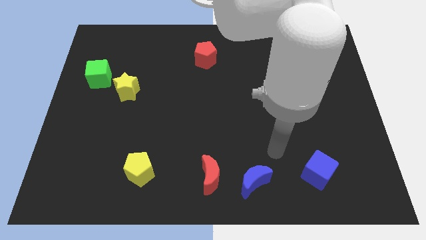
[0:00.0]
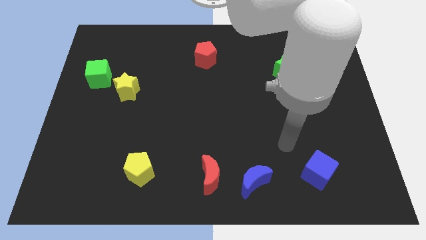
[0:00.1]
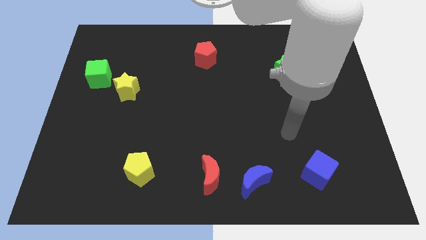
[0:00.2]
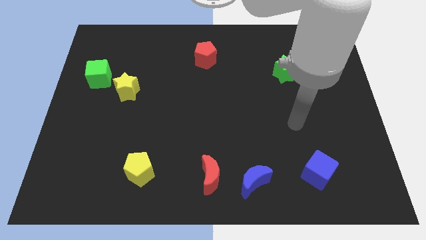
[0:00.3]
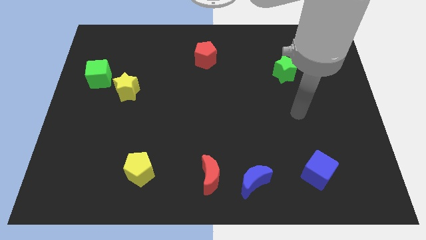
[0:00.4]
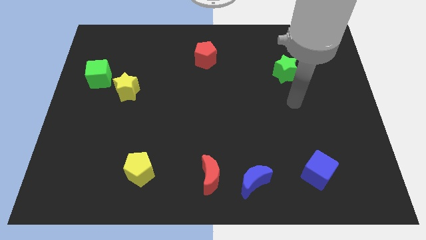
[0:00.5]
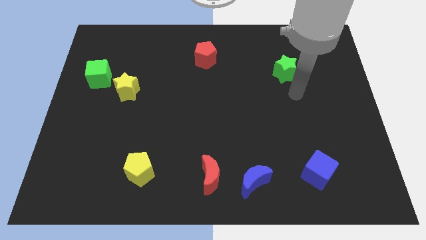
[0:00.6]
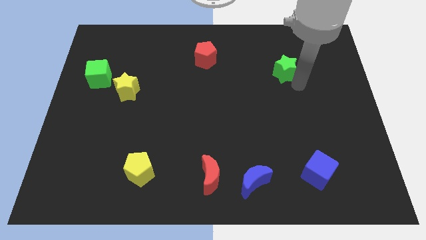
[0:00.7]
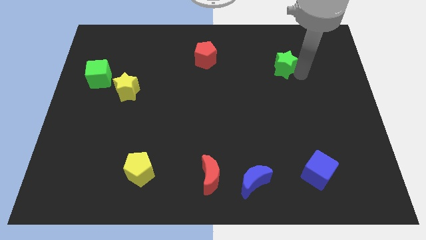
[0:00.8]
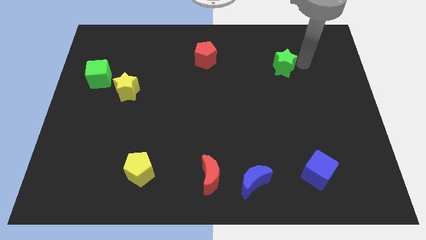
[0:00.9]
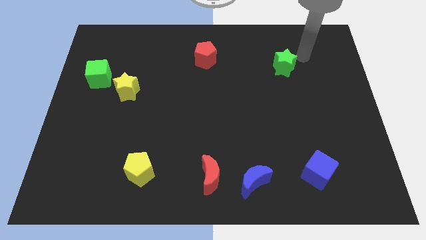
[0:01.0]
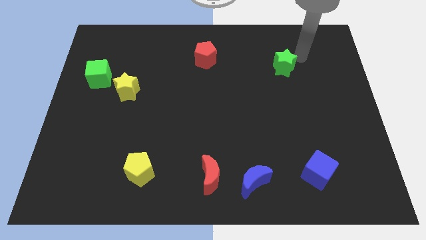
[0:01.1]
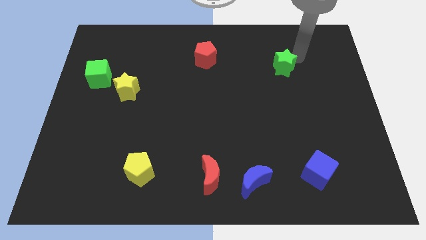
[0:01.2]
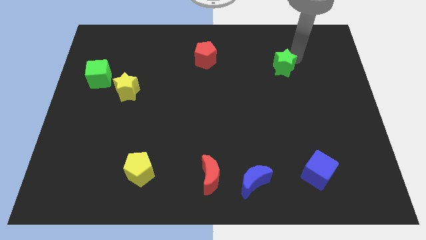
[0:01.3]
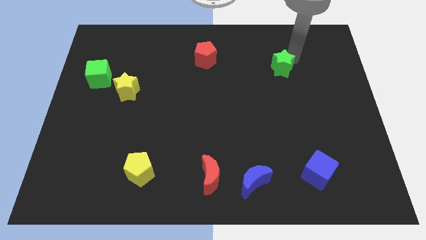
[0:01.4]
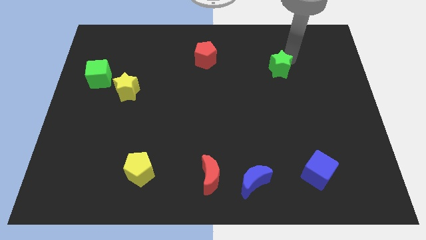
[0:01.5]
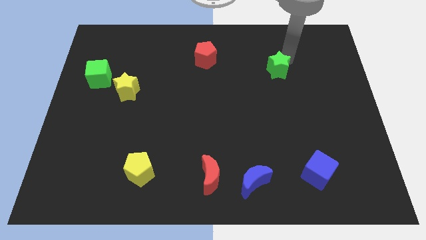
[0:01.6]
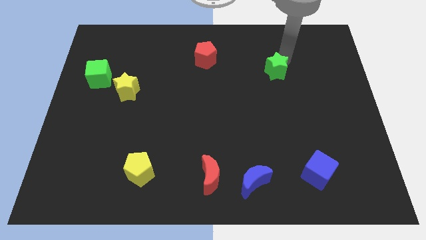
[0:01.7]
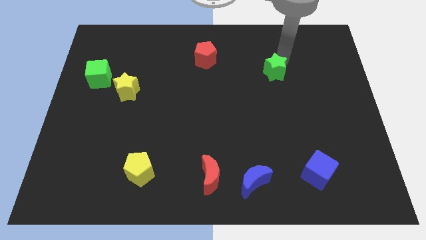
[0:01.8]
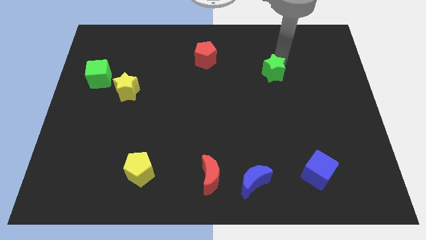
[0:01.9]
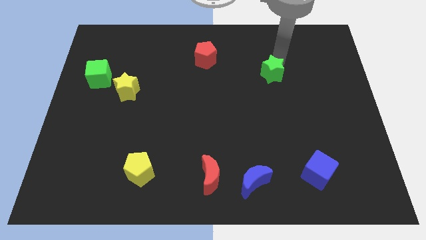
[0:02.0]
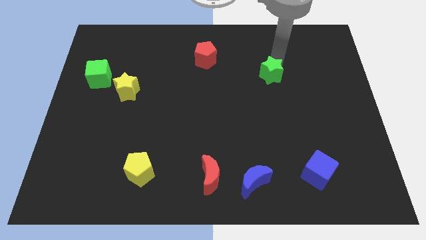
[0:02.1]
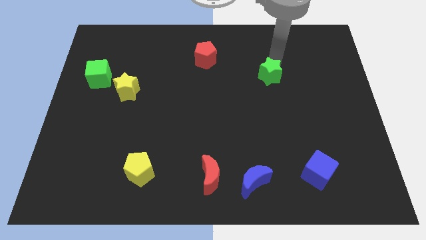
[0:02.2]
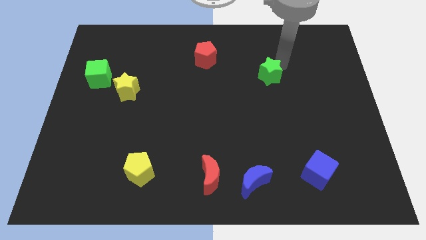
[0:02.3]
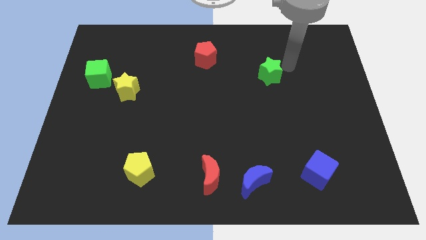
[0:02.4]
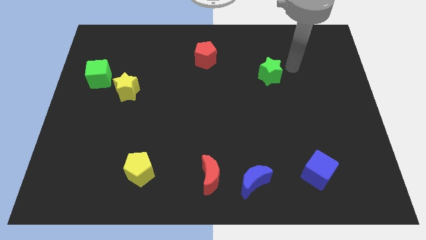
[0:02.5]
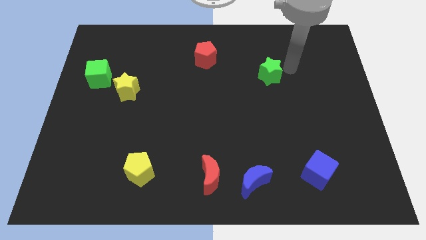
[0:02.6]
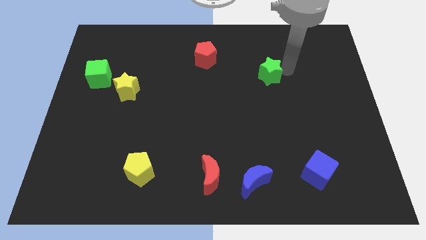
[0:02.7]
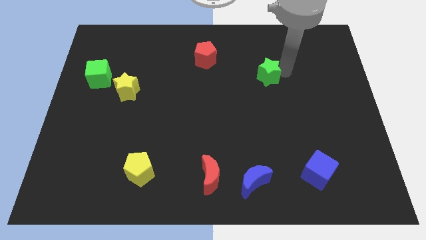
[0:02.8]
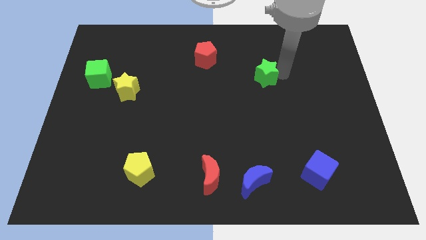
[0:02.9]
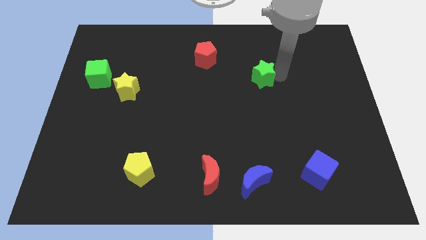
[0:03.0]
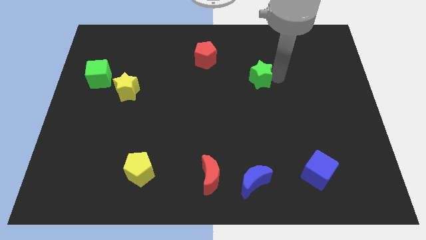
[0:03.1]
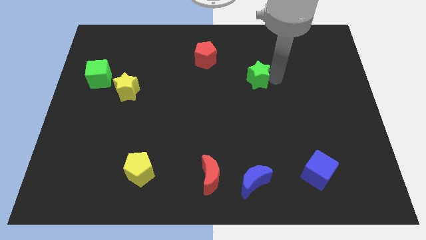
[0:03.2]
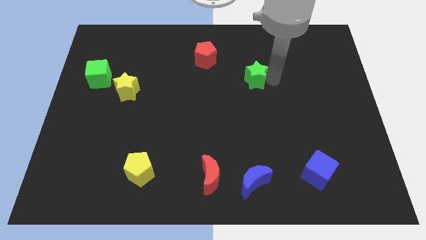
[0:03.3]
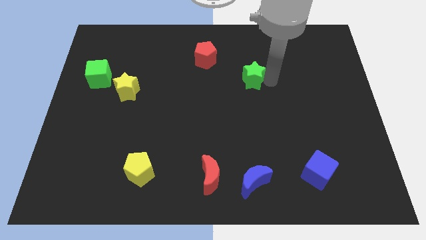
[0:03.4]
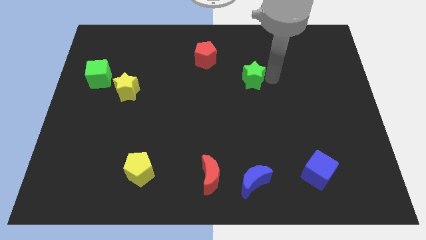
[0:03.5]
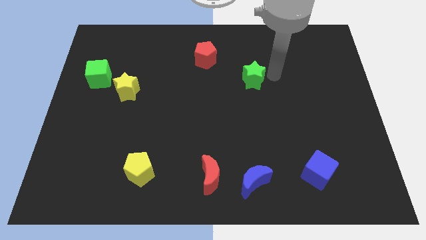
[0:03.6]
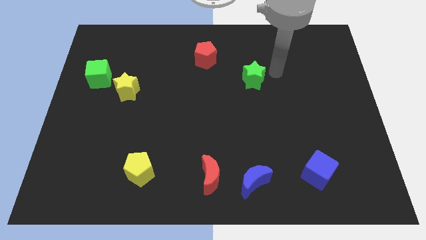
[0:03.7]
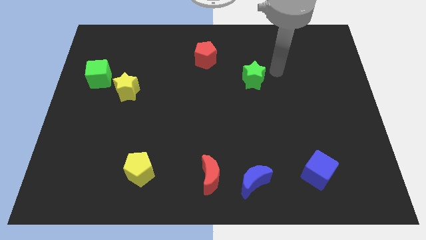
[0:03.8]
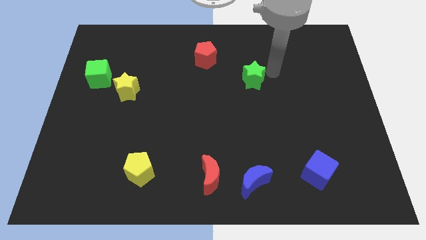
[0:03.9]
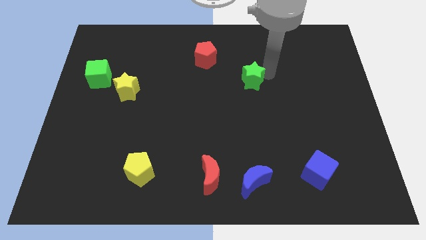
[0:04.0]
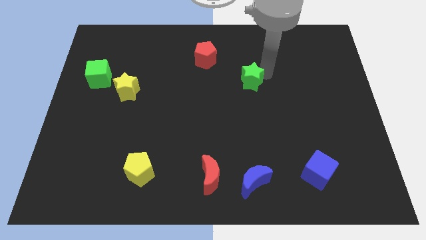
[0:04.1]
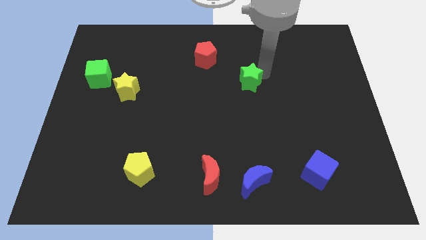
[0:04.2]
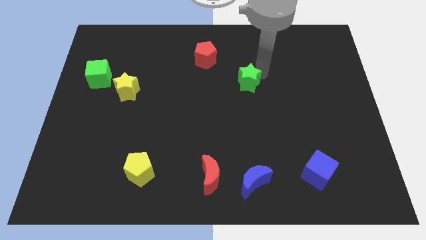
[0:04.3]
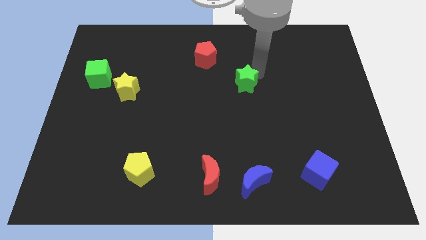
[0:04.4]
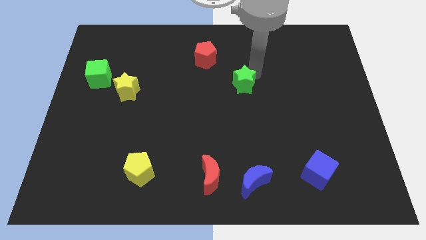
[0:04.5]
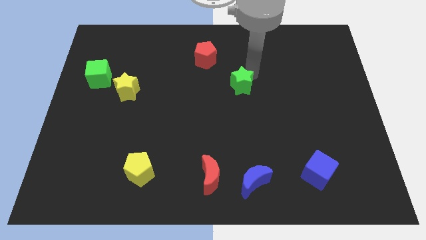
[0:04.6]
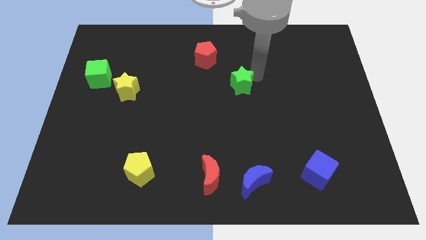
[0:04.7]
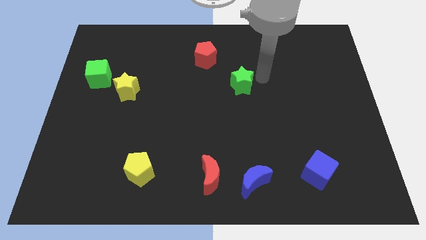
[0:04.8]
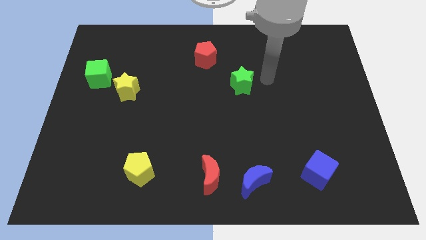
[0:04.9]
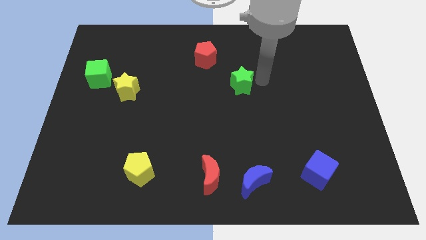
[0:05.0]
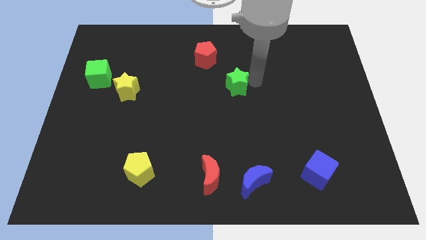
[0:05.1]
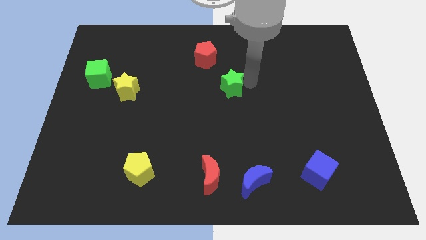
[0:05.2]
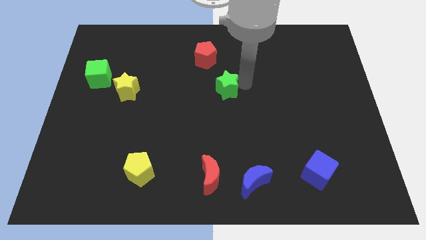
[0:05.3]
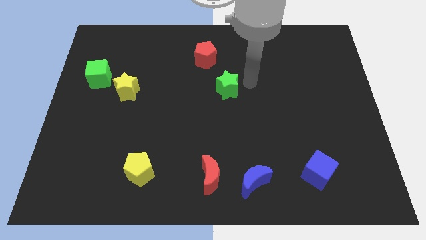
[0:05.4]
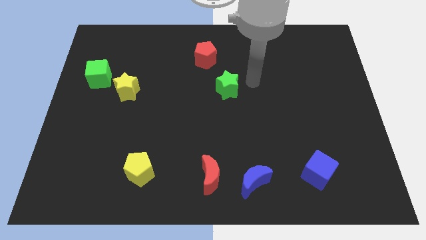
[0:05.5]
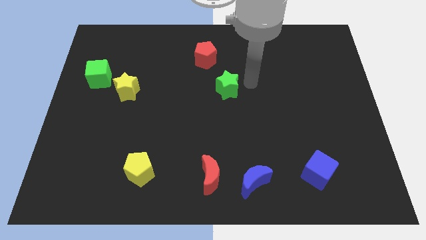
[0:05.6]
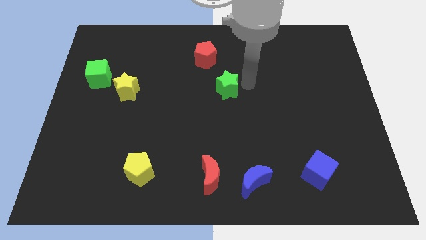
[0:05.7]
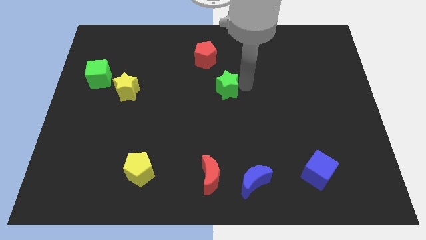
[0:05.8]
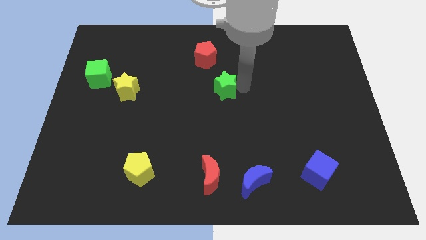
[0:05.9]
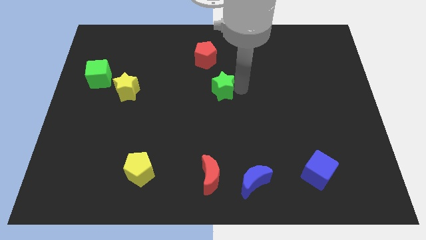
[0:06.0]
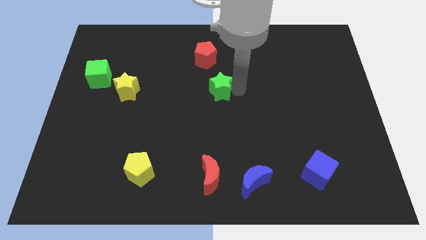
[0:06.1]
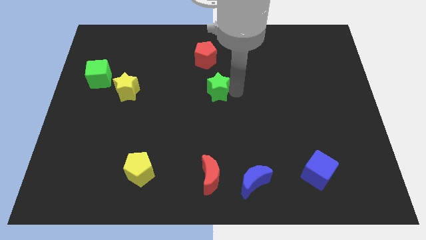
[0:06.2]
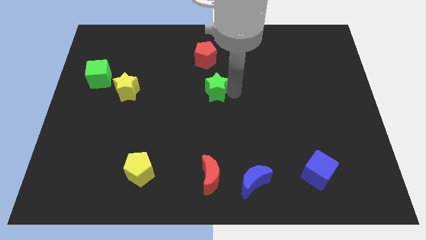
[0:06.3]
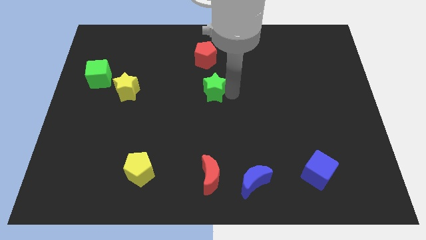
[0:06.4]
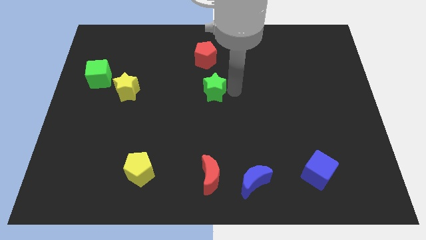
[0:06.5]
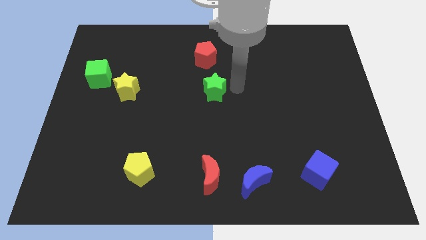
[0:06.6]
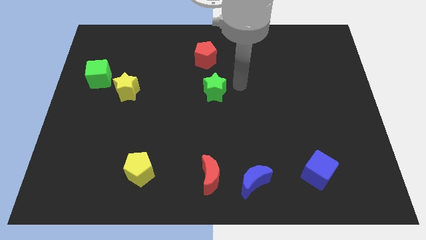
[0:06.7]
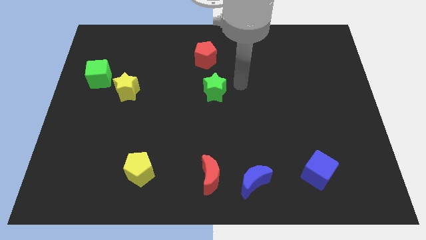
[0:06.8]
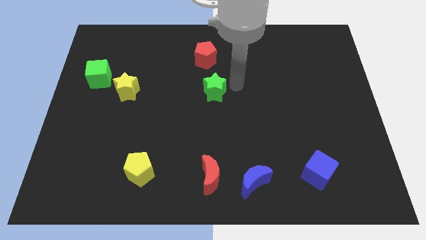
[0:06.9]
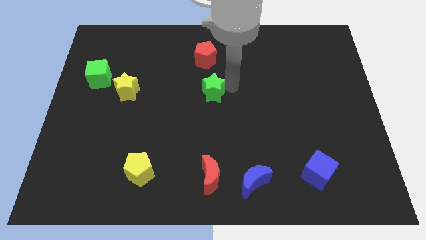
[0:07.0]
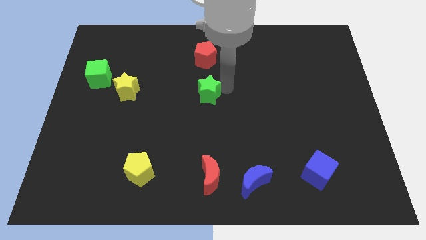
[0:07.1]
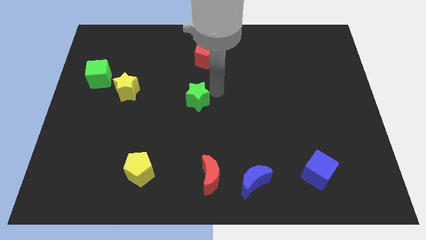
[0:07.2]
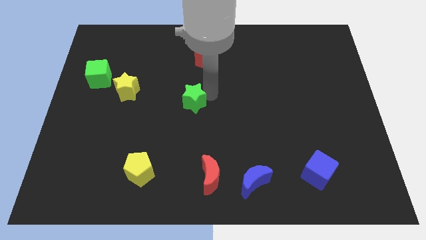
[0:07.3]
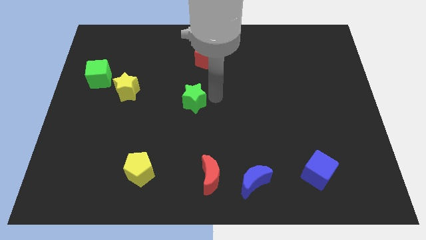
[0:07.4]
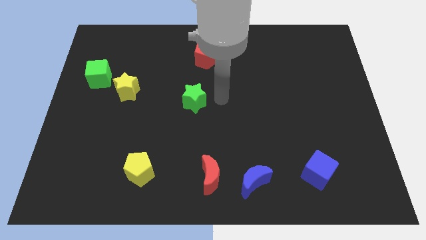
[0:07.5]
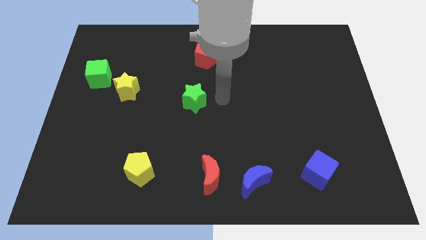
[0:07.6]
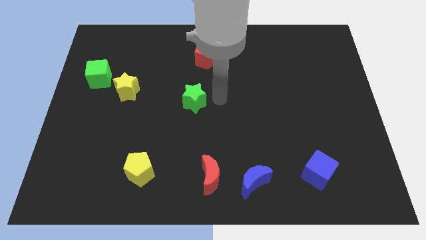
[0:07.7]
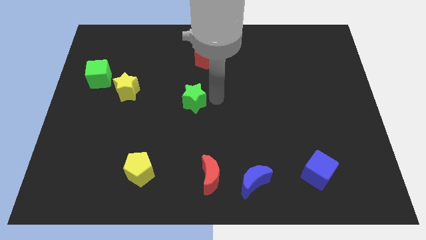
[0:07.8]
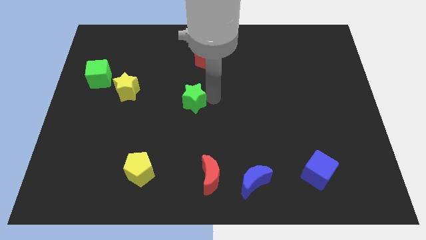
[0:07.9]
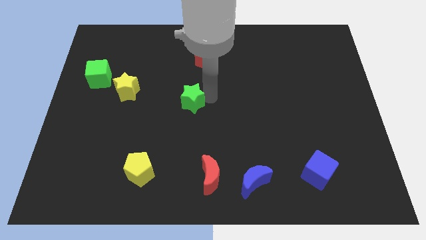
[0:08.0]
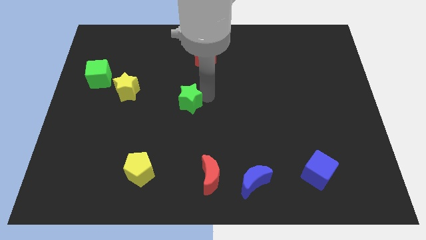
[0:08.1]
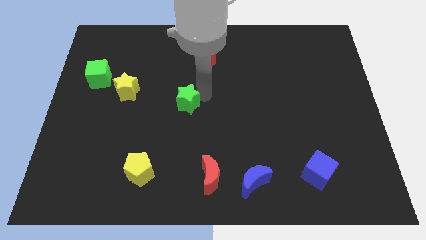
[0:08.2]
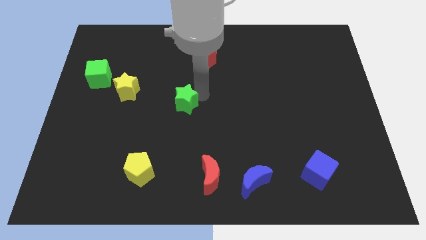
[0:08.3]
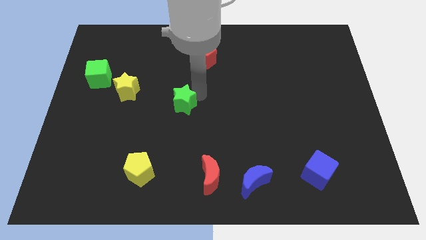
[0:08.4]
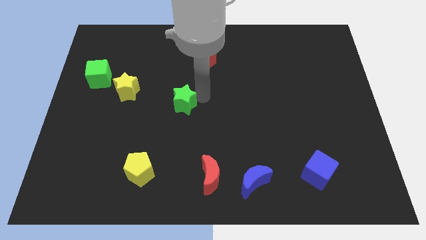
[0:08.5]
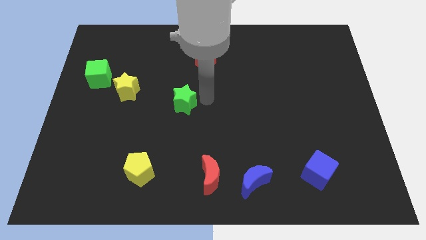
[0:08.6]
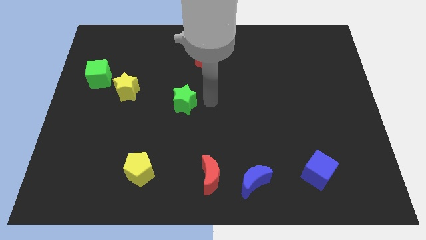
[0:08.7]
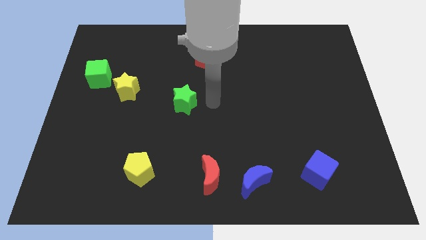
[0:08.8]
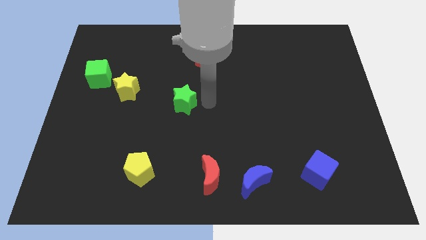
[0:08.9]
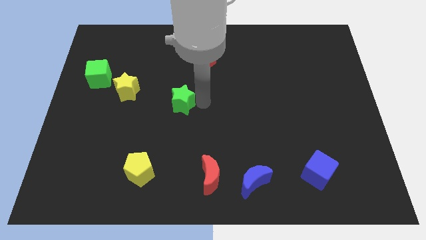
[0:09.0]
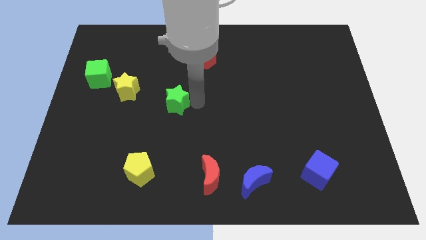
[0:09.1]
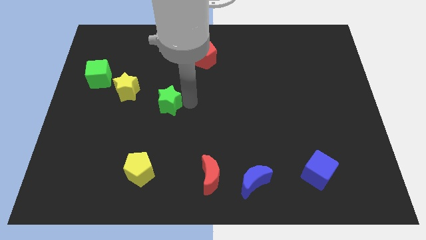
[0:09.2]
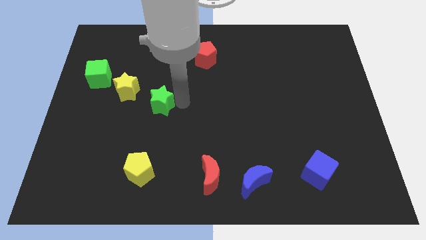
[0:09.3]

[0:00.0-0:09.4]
move the green star to the bottom right side of the yellow star
